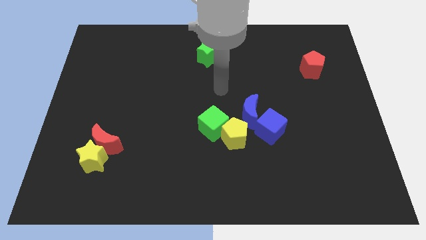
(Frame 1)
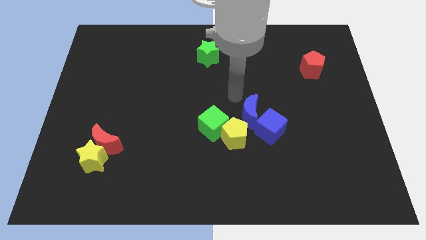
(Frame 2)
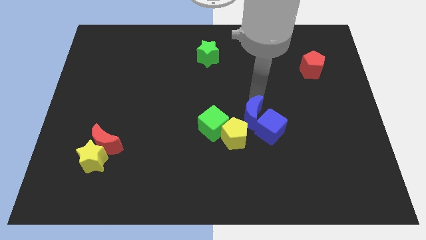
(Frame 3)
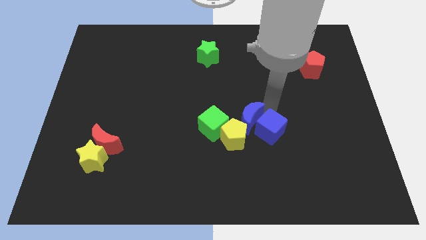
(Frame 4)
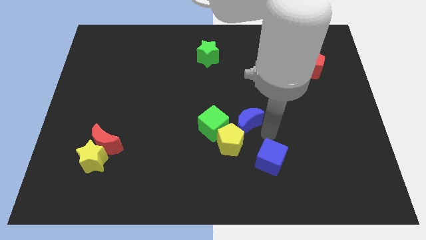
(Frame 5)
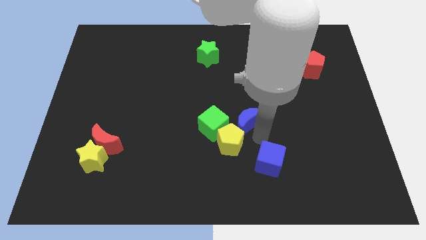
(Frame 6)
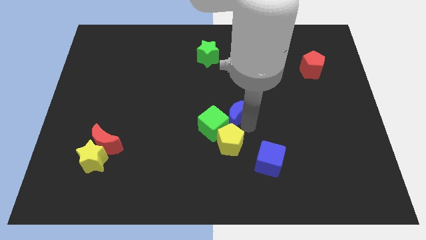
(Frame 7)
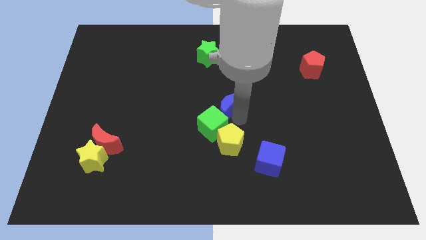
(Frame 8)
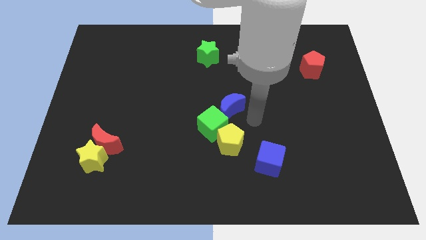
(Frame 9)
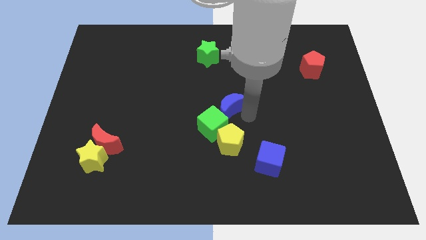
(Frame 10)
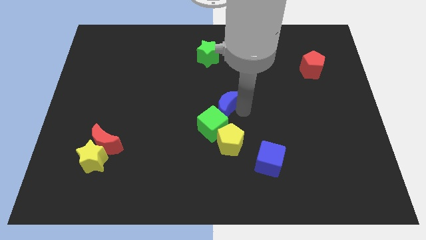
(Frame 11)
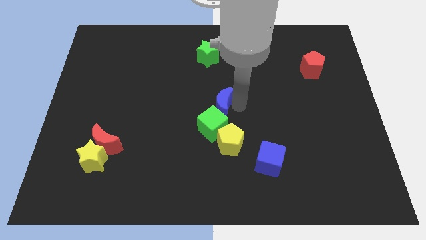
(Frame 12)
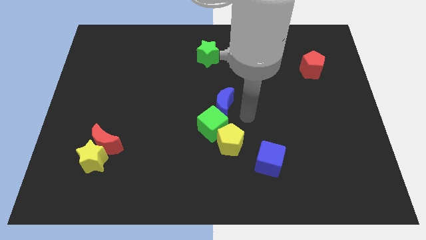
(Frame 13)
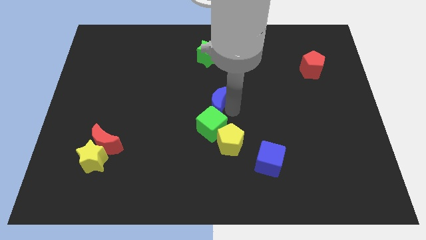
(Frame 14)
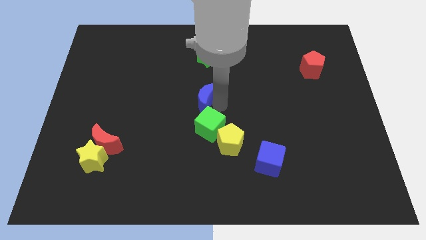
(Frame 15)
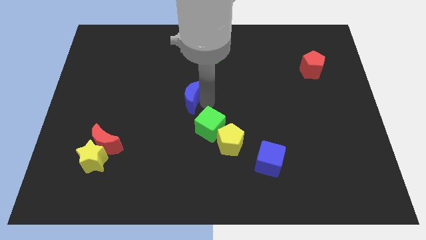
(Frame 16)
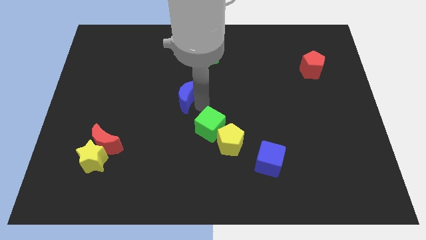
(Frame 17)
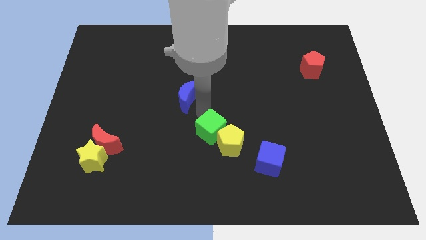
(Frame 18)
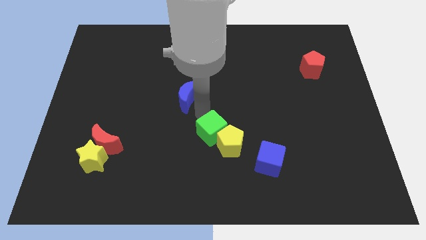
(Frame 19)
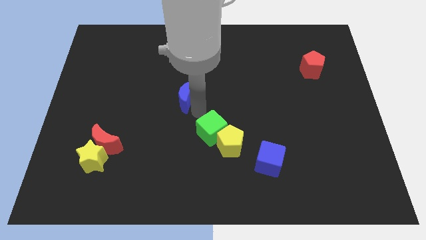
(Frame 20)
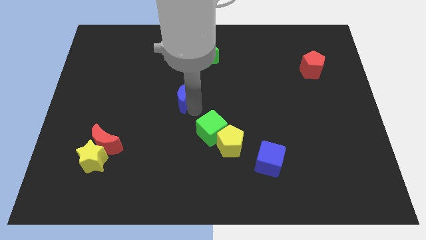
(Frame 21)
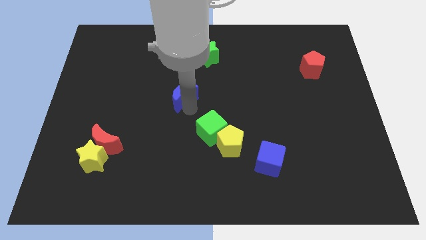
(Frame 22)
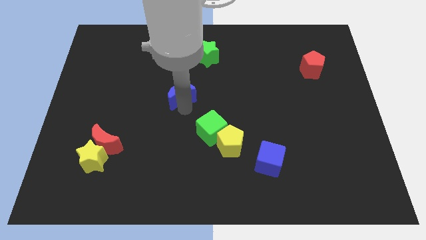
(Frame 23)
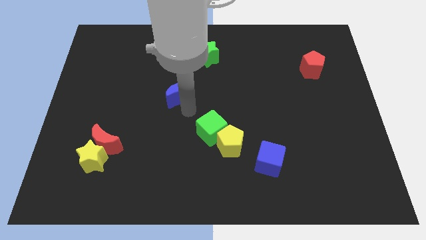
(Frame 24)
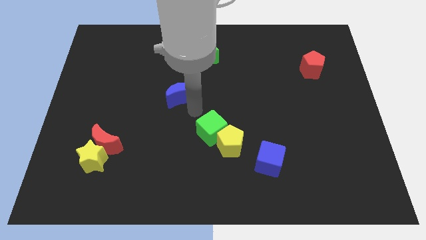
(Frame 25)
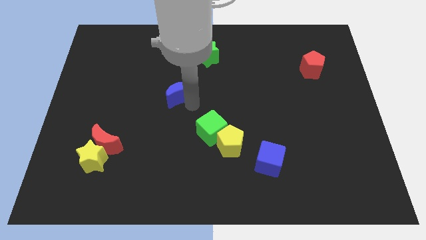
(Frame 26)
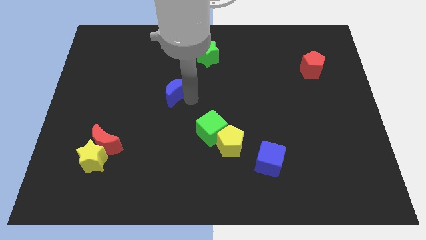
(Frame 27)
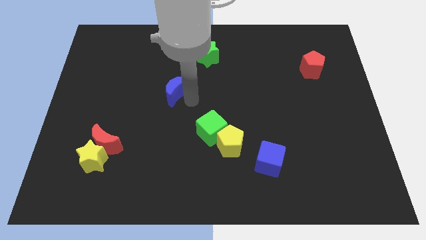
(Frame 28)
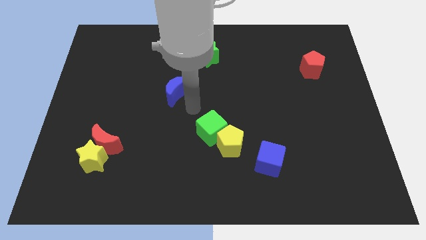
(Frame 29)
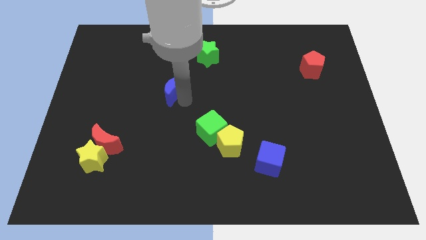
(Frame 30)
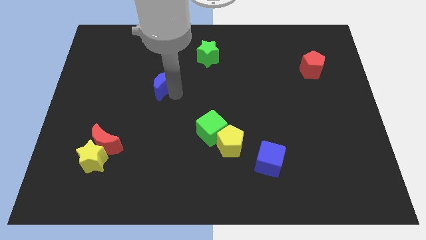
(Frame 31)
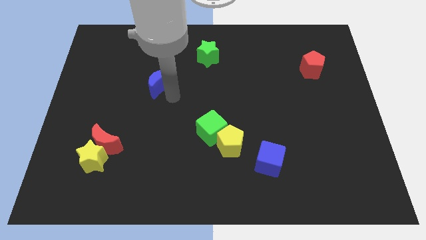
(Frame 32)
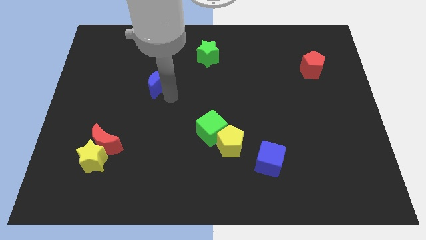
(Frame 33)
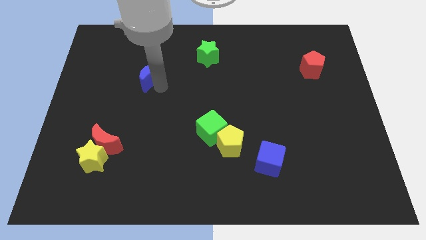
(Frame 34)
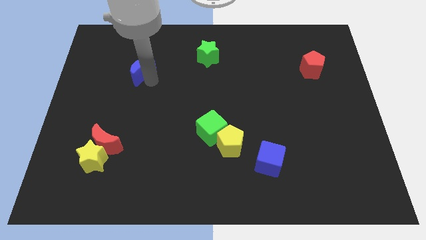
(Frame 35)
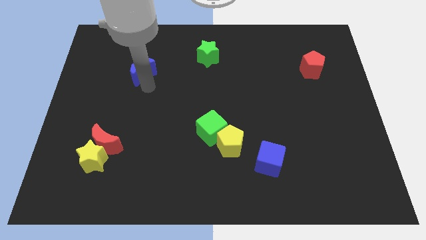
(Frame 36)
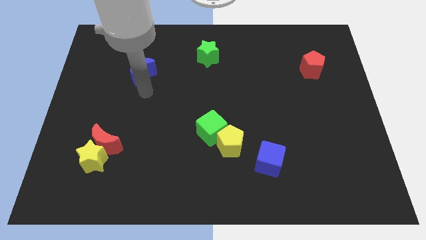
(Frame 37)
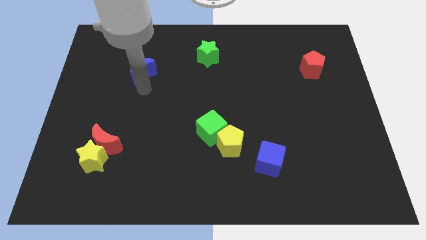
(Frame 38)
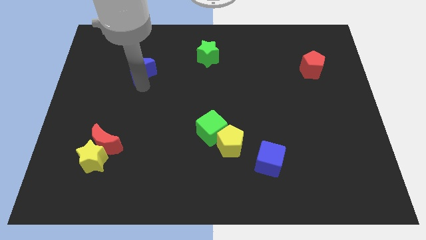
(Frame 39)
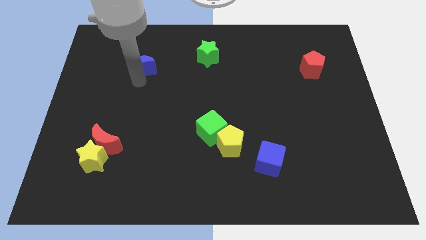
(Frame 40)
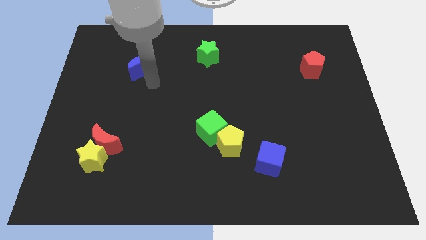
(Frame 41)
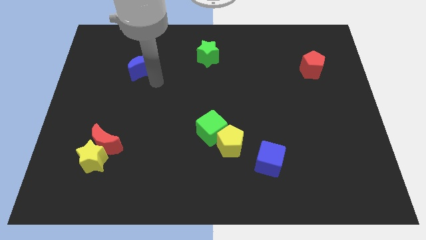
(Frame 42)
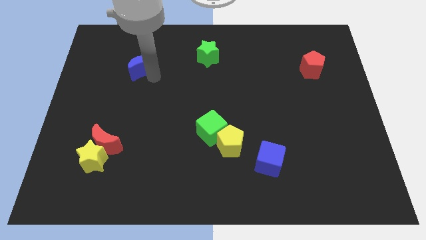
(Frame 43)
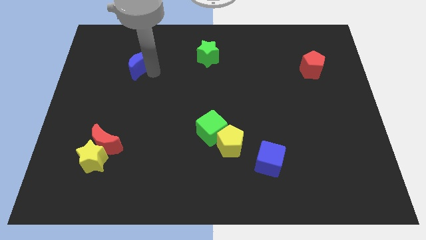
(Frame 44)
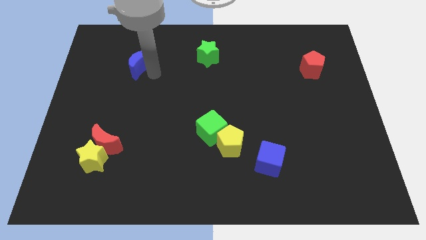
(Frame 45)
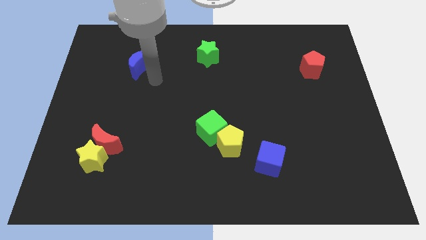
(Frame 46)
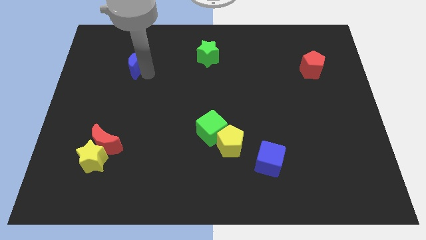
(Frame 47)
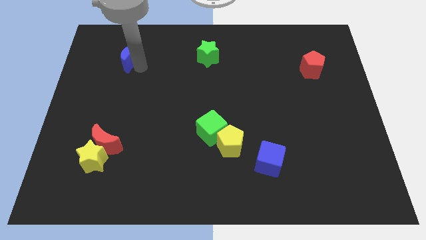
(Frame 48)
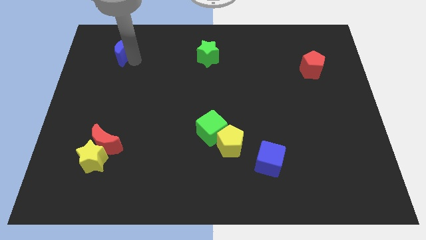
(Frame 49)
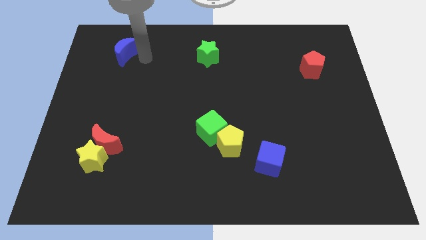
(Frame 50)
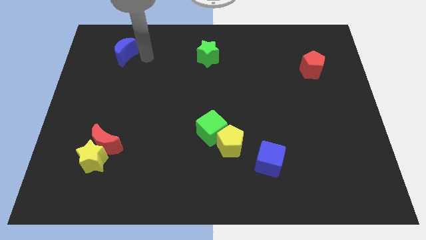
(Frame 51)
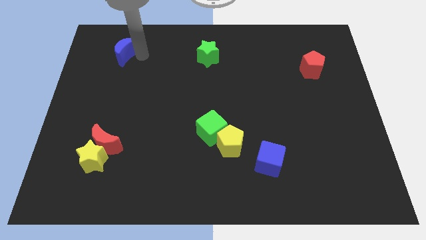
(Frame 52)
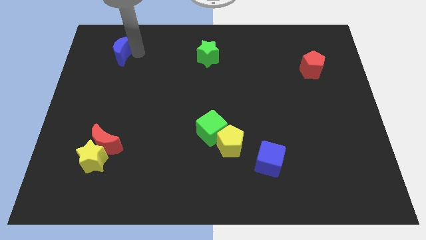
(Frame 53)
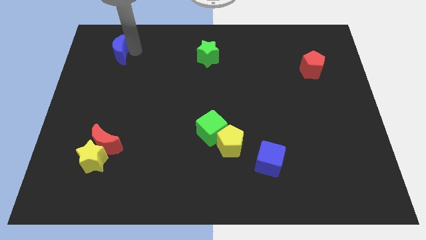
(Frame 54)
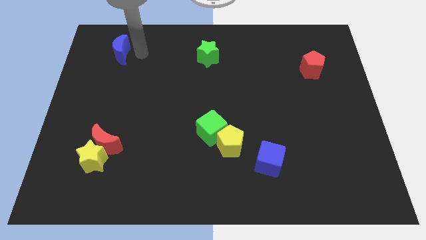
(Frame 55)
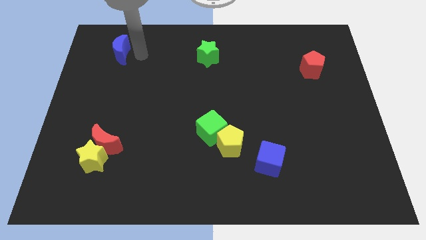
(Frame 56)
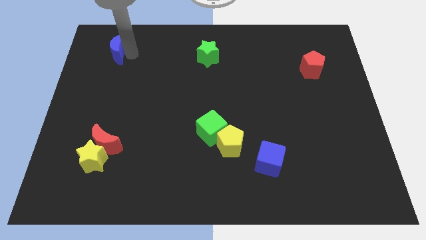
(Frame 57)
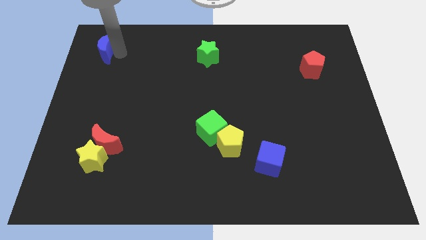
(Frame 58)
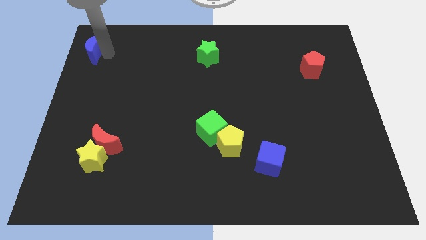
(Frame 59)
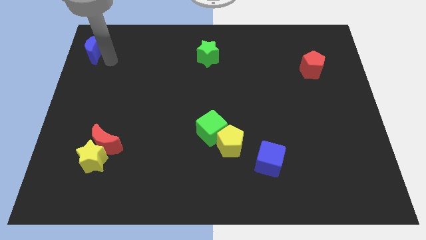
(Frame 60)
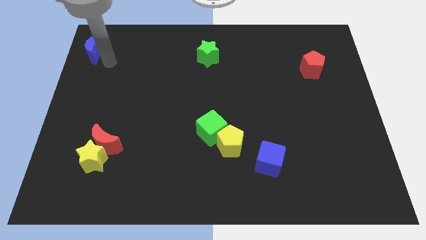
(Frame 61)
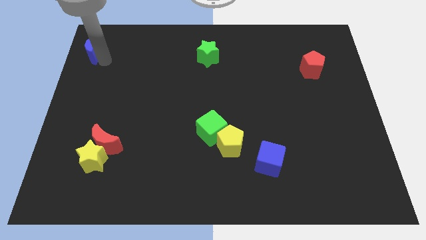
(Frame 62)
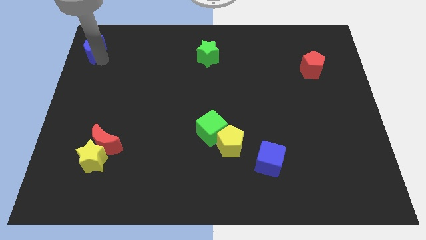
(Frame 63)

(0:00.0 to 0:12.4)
slide the blue moon to the top left
